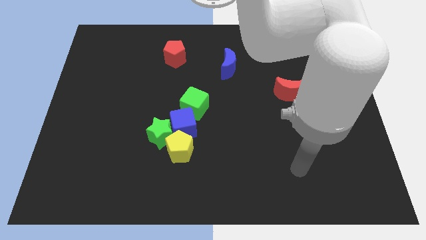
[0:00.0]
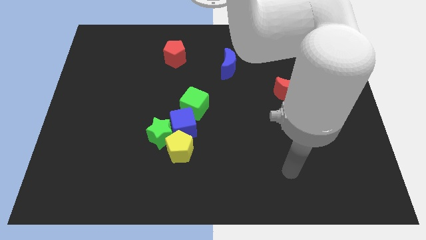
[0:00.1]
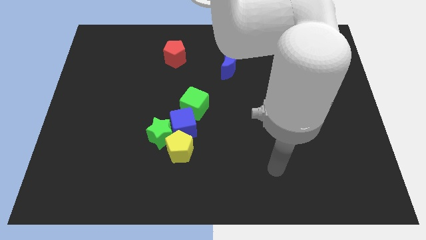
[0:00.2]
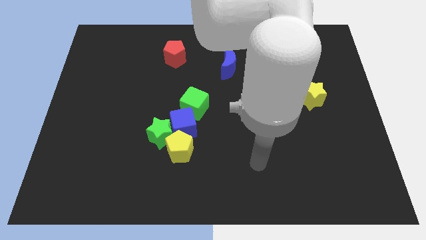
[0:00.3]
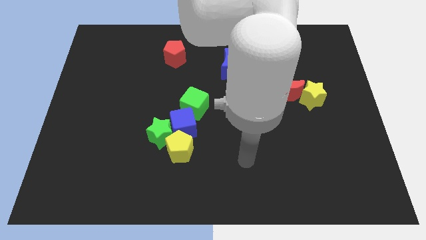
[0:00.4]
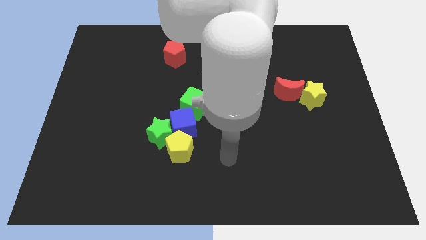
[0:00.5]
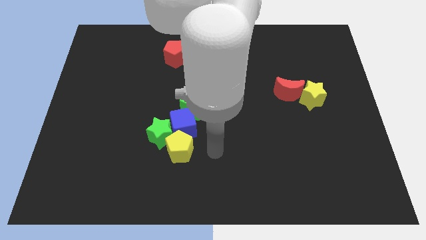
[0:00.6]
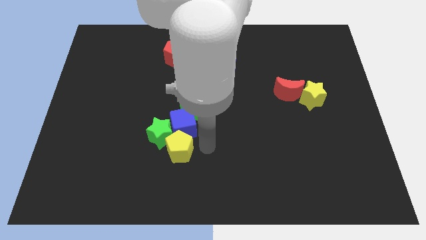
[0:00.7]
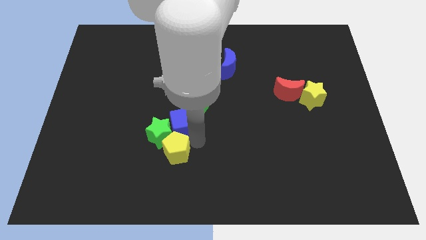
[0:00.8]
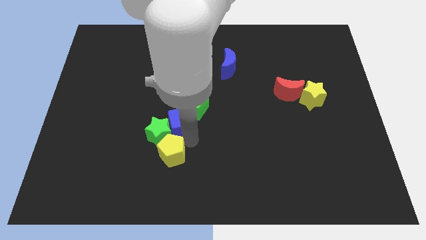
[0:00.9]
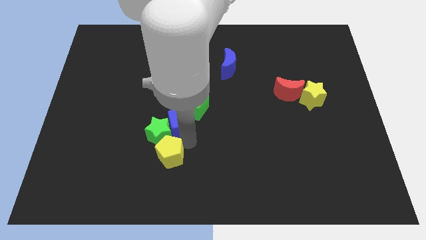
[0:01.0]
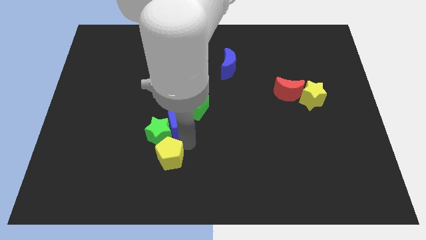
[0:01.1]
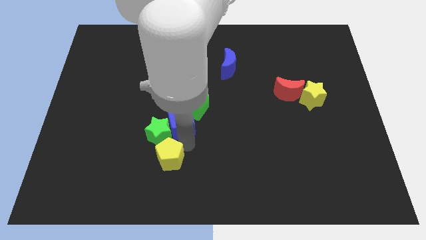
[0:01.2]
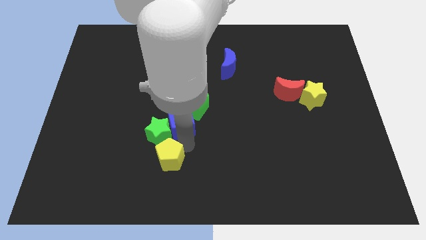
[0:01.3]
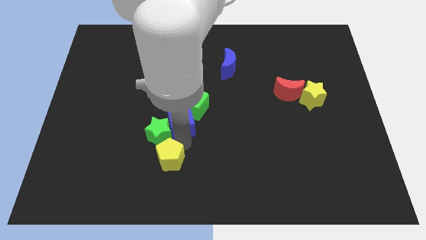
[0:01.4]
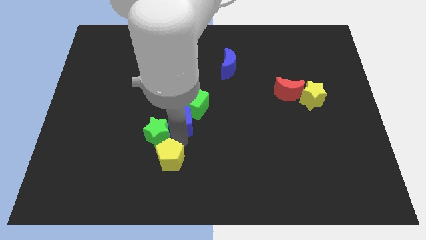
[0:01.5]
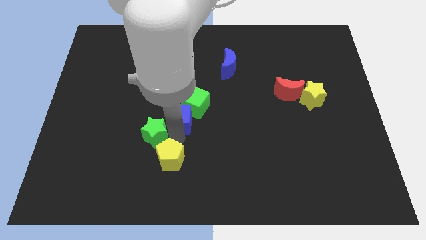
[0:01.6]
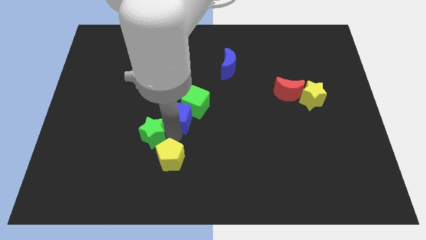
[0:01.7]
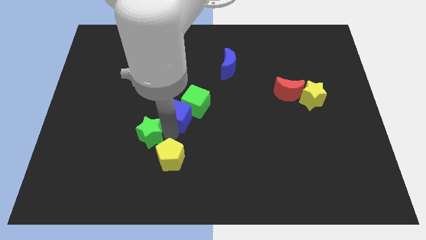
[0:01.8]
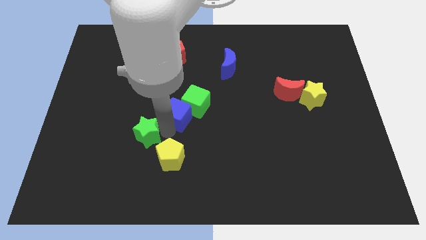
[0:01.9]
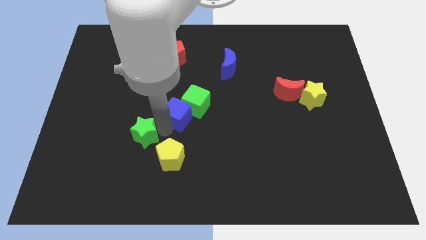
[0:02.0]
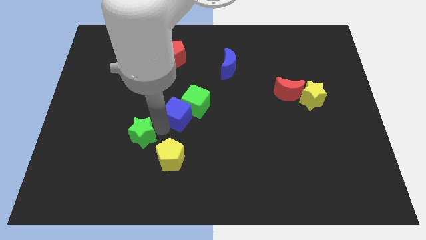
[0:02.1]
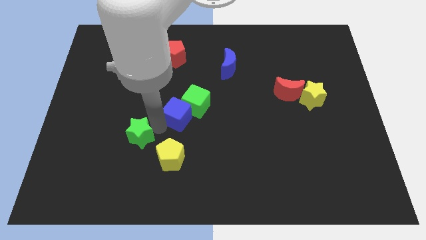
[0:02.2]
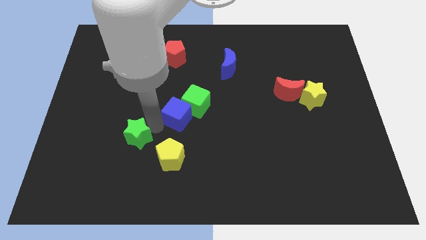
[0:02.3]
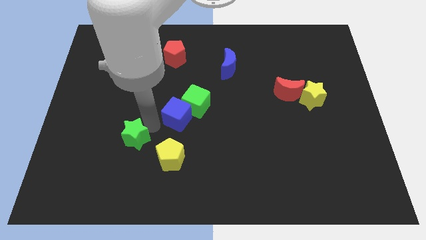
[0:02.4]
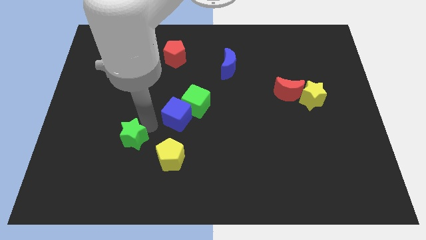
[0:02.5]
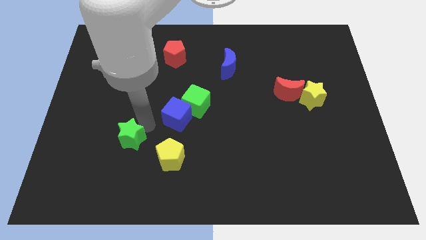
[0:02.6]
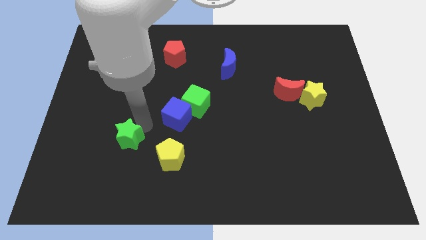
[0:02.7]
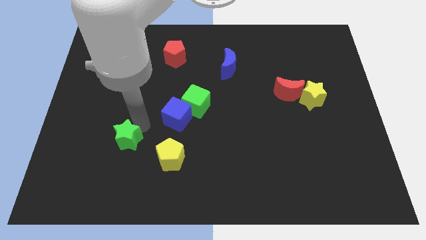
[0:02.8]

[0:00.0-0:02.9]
pull the green star apart from the blue cube and yellow pentagon

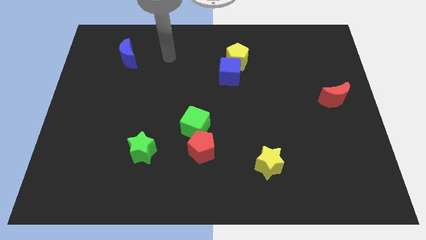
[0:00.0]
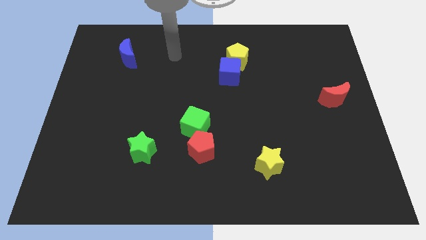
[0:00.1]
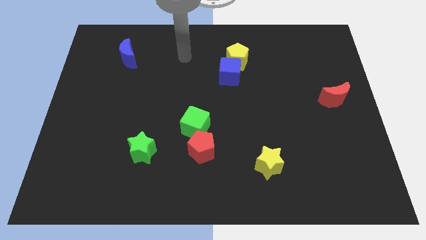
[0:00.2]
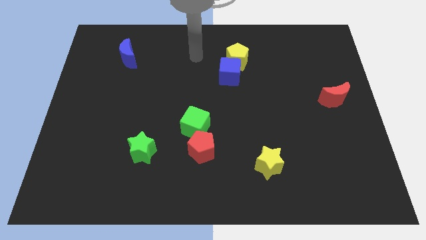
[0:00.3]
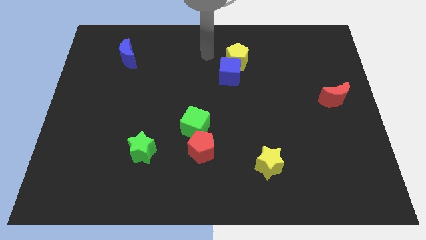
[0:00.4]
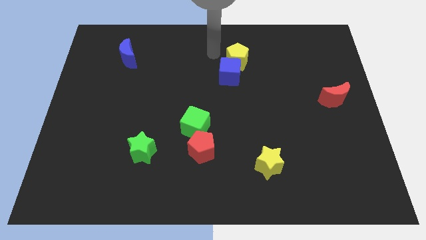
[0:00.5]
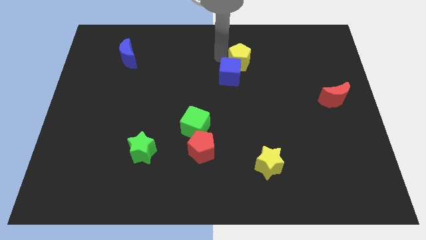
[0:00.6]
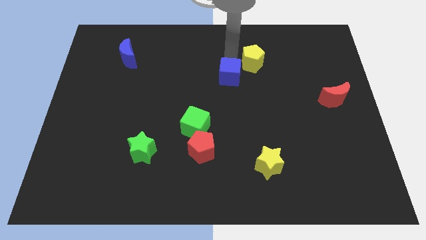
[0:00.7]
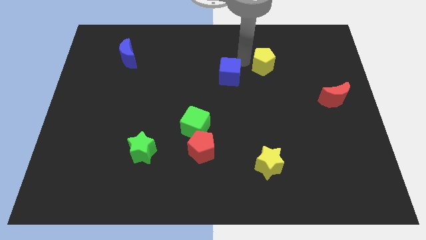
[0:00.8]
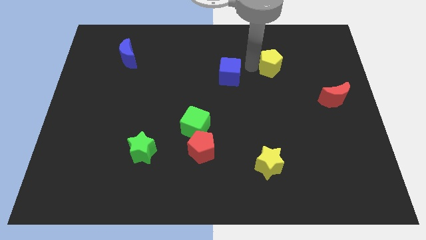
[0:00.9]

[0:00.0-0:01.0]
pull the blue cube apart from the yellow pentagon

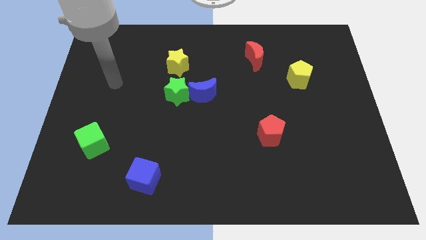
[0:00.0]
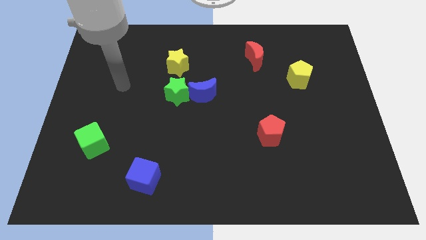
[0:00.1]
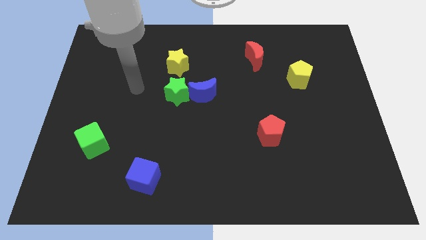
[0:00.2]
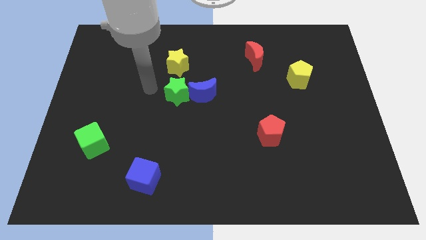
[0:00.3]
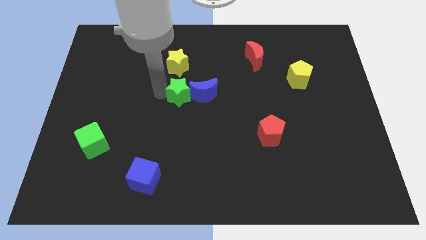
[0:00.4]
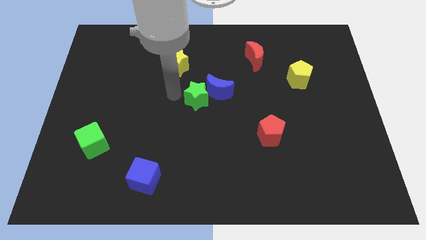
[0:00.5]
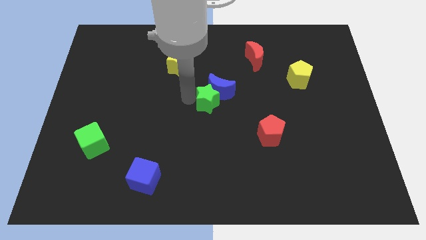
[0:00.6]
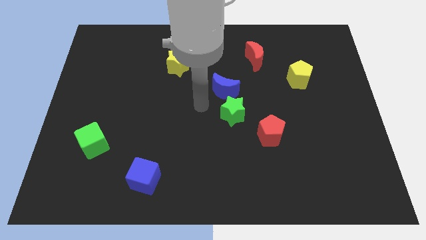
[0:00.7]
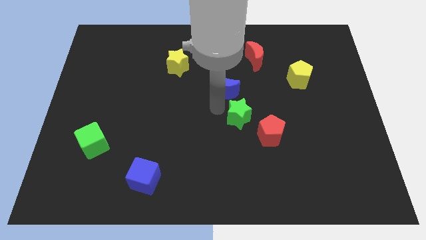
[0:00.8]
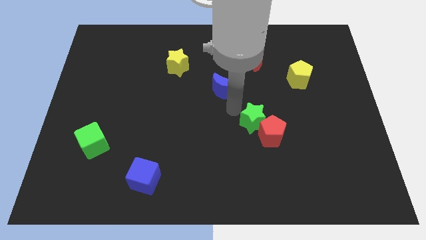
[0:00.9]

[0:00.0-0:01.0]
pull the blue moon apart from the green star

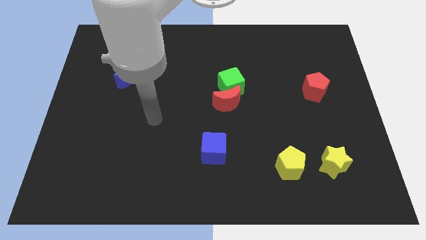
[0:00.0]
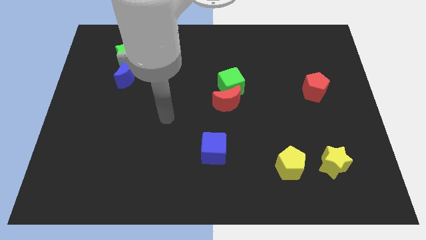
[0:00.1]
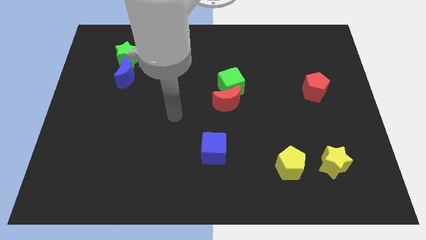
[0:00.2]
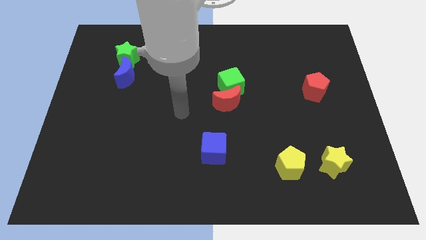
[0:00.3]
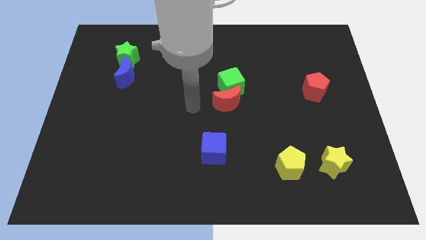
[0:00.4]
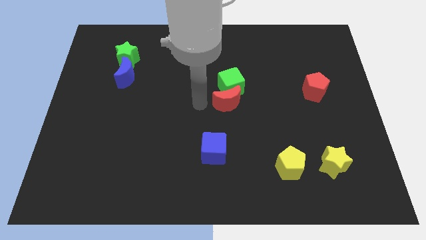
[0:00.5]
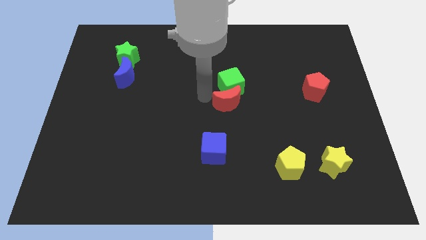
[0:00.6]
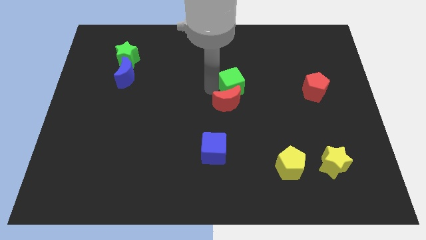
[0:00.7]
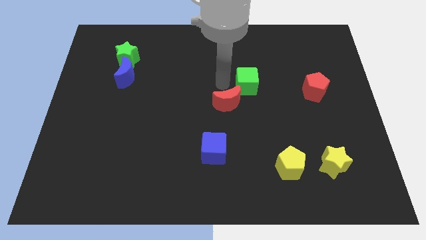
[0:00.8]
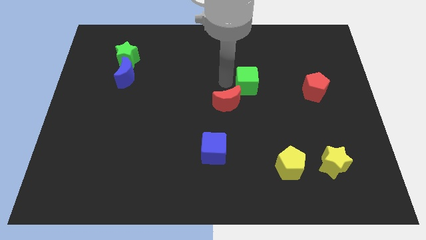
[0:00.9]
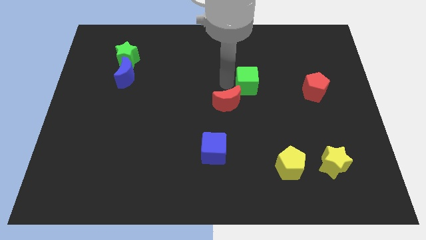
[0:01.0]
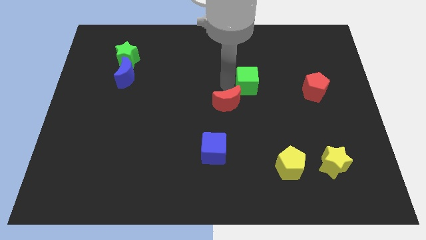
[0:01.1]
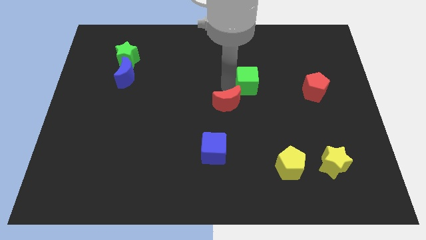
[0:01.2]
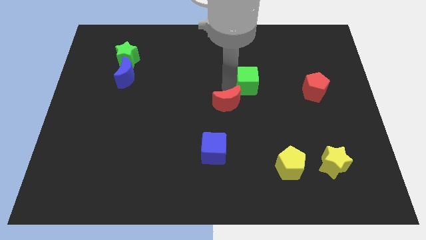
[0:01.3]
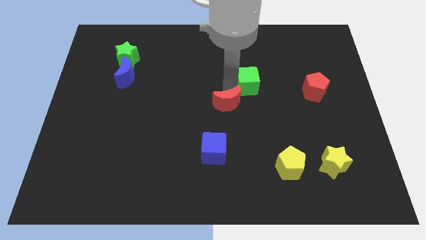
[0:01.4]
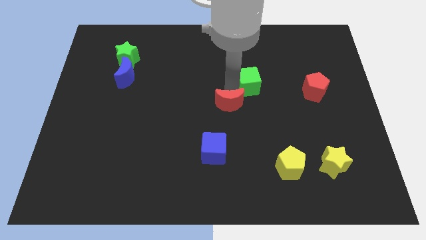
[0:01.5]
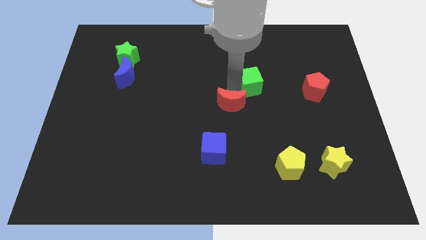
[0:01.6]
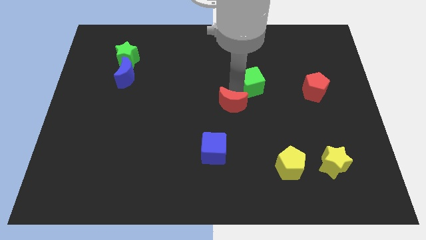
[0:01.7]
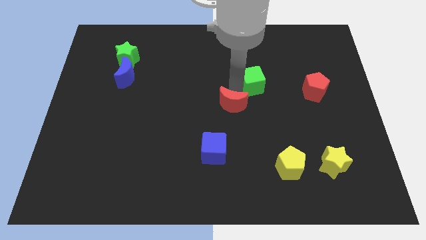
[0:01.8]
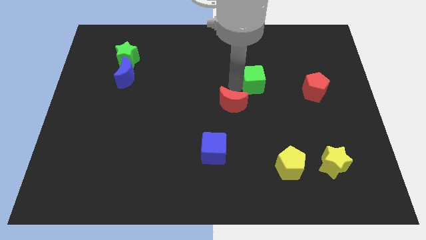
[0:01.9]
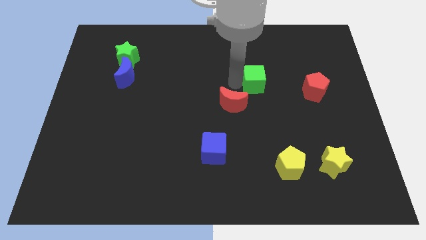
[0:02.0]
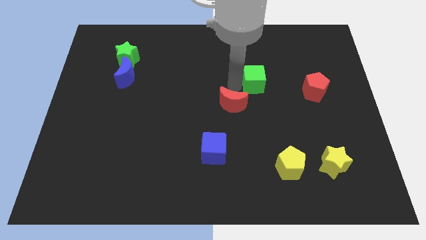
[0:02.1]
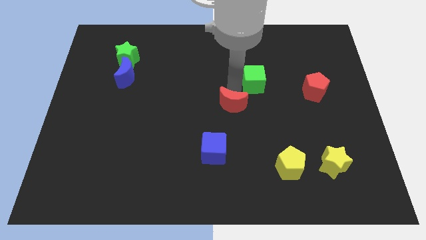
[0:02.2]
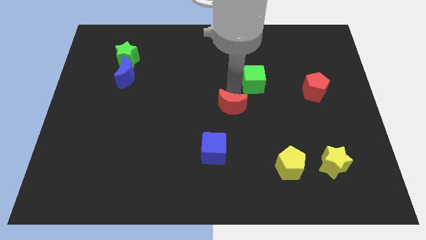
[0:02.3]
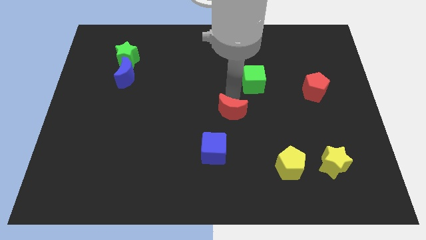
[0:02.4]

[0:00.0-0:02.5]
move the red moon away from the green cube

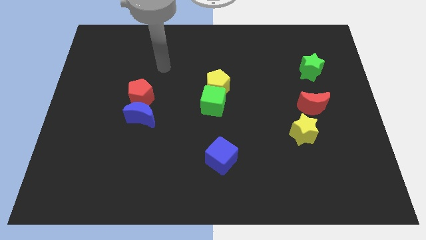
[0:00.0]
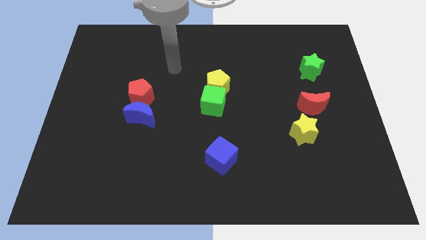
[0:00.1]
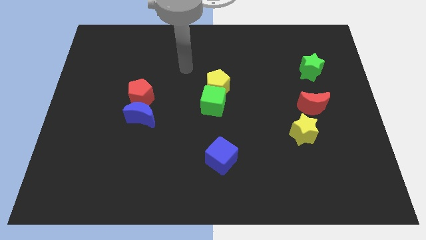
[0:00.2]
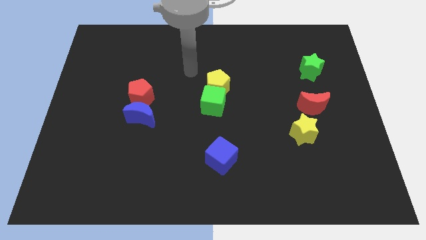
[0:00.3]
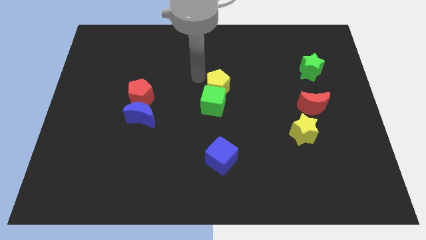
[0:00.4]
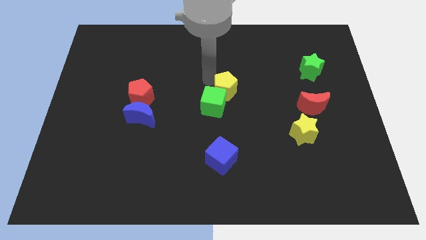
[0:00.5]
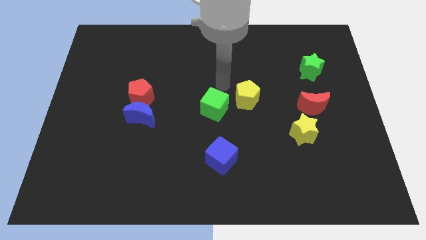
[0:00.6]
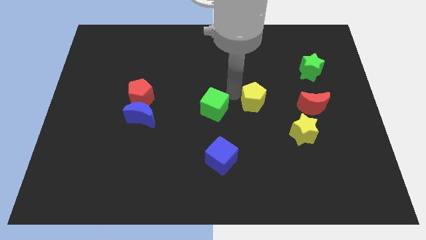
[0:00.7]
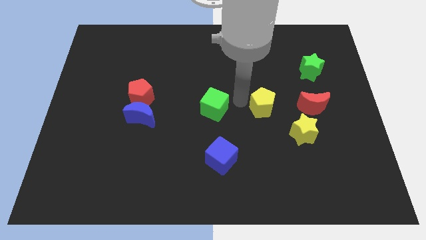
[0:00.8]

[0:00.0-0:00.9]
separate the green cube from the yellow pentagon

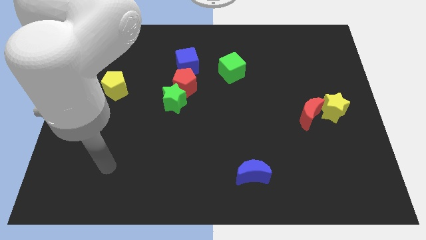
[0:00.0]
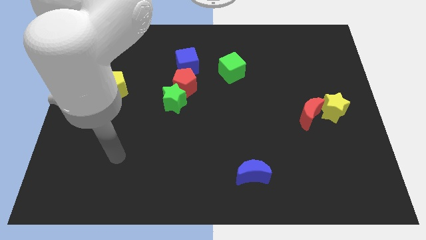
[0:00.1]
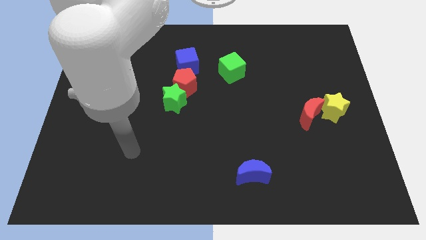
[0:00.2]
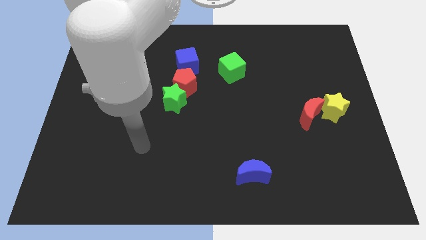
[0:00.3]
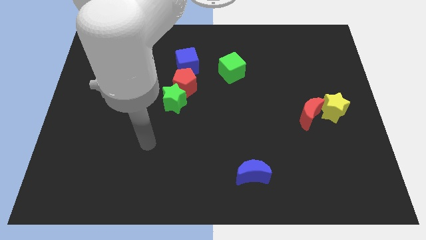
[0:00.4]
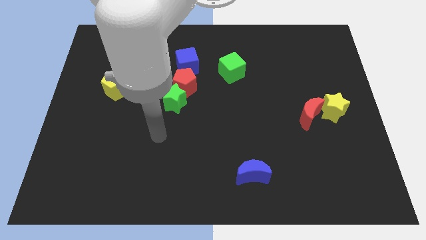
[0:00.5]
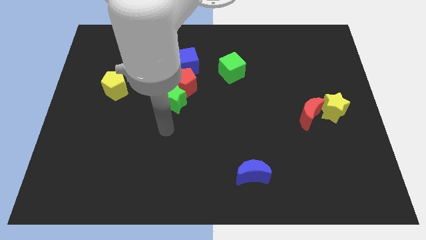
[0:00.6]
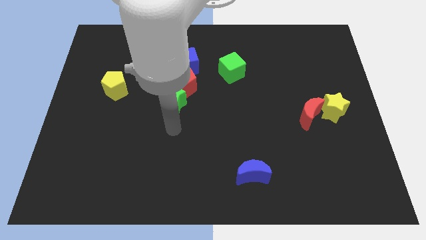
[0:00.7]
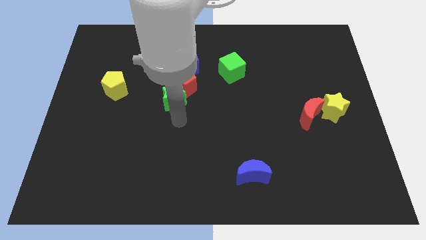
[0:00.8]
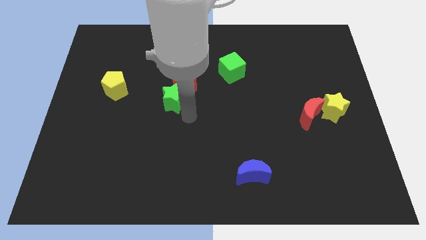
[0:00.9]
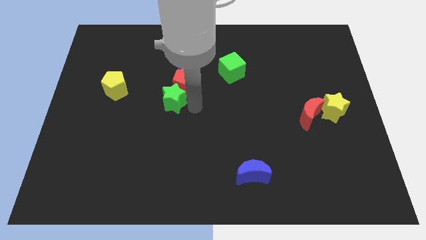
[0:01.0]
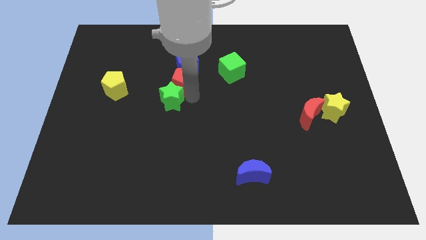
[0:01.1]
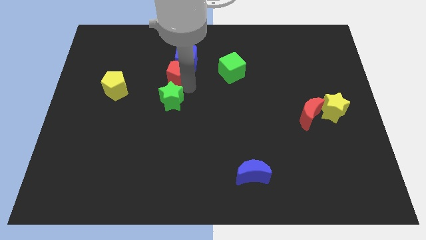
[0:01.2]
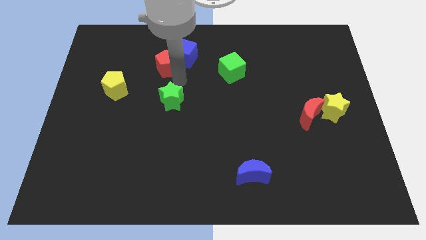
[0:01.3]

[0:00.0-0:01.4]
separate the green star from the red pentagon
